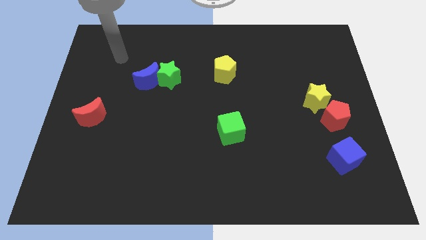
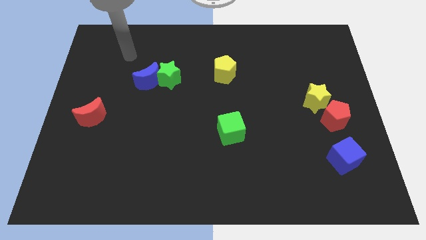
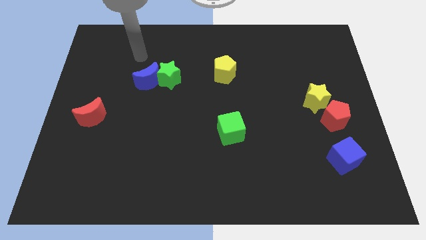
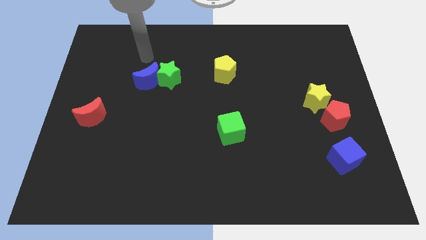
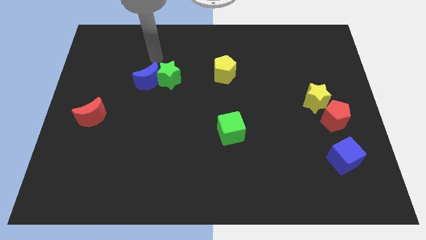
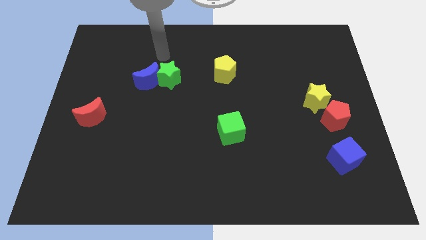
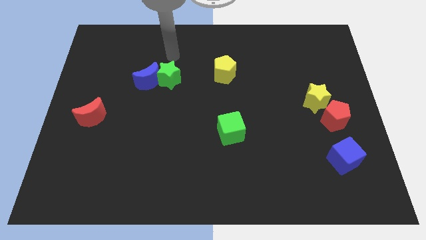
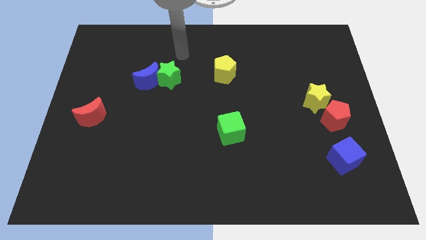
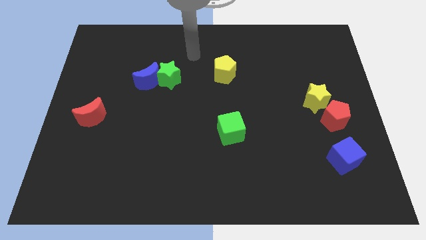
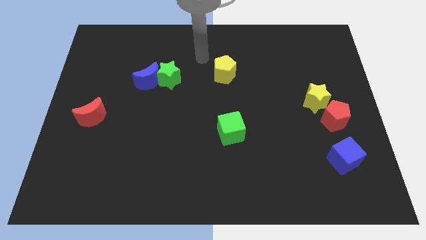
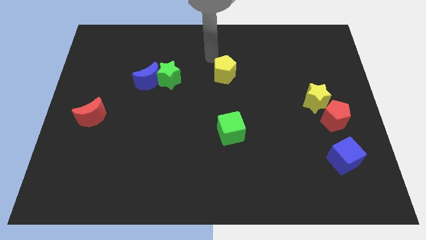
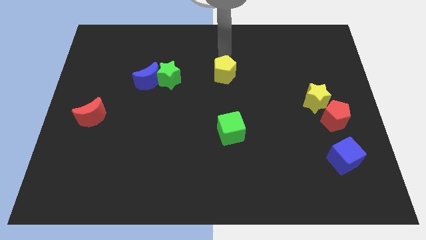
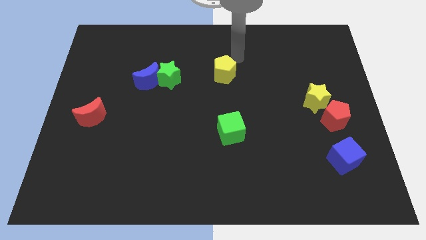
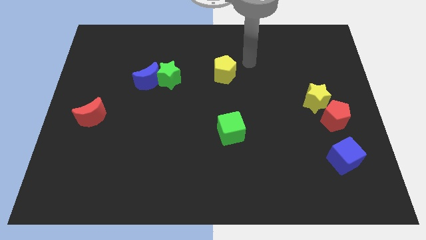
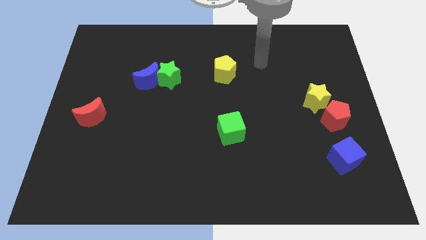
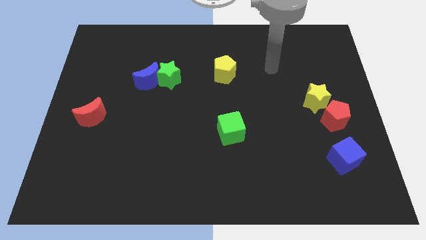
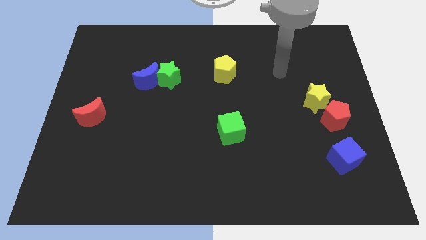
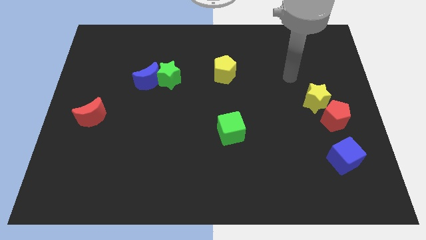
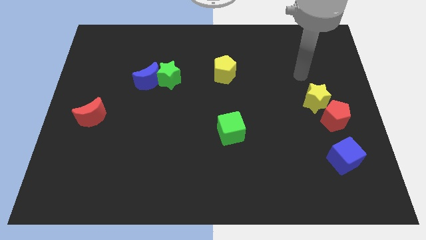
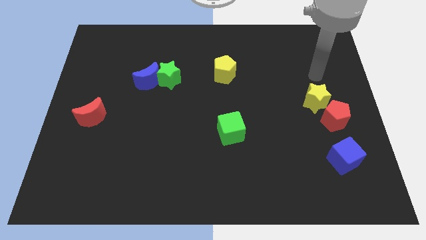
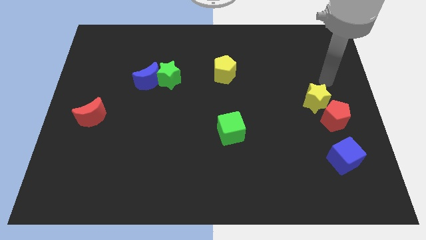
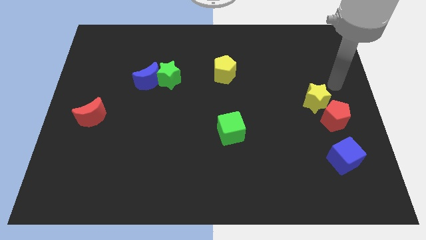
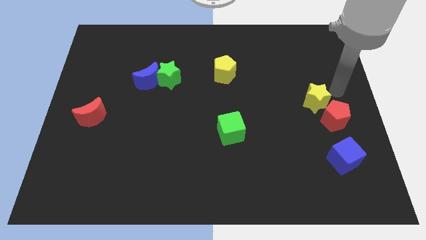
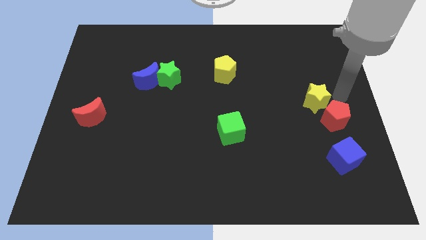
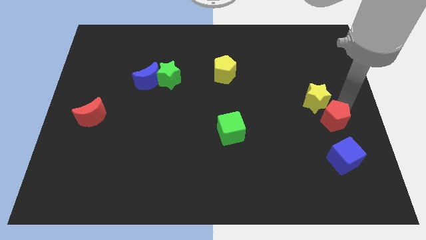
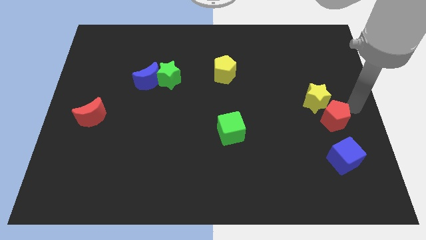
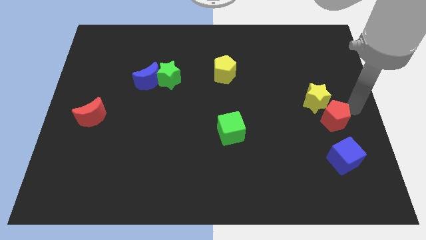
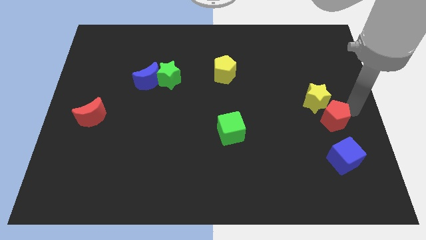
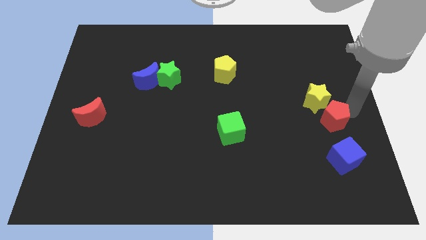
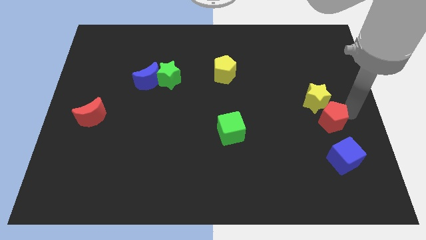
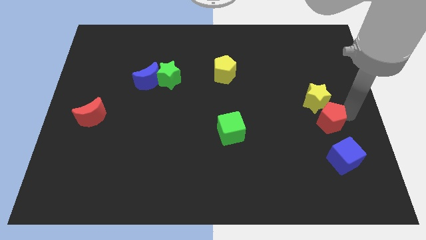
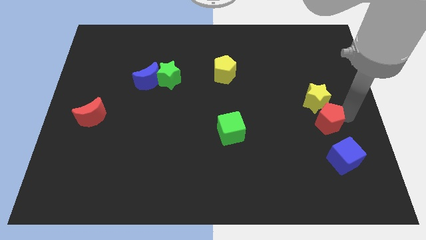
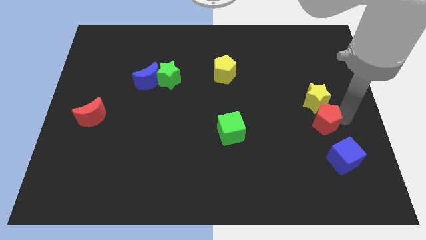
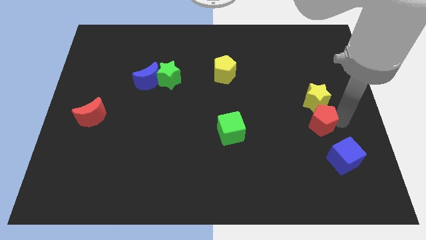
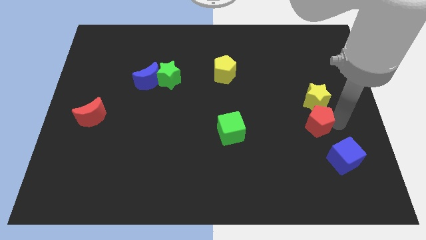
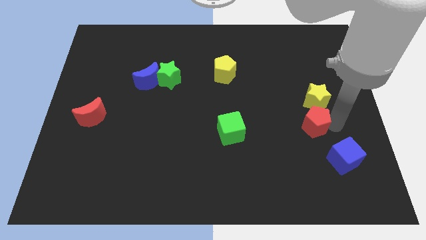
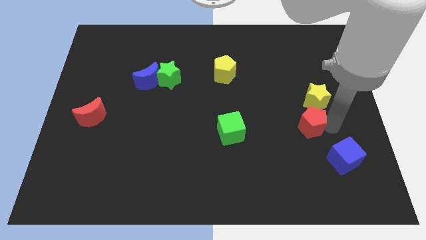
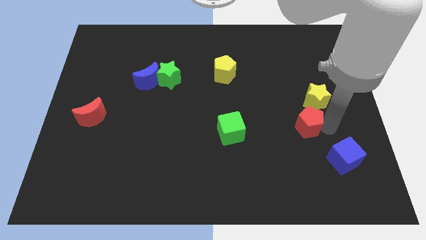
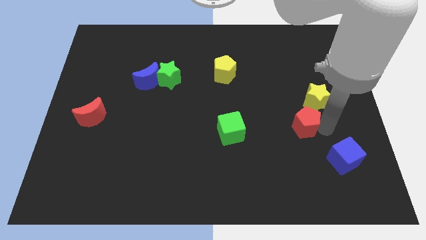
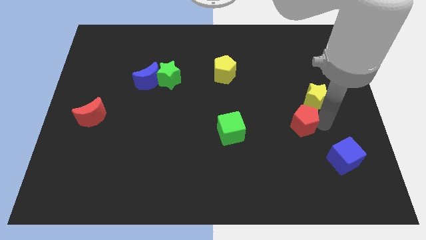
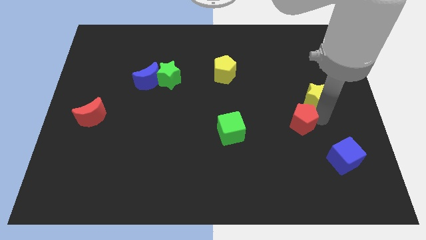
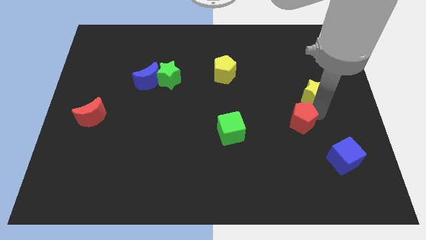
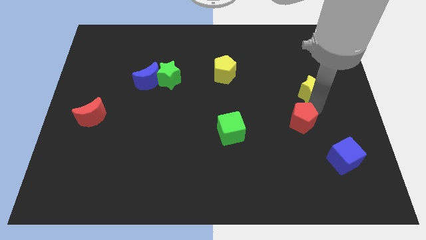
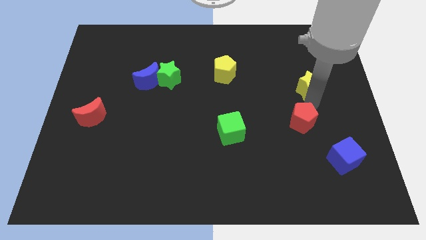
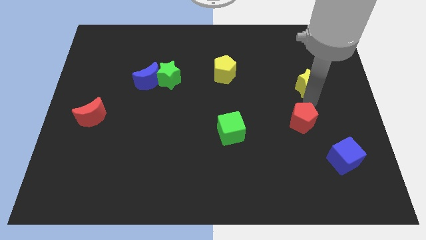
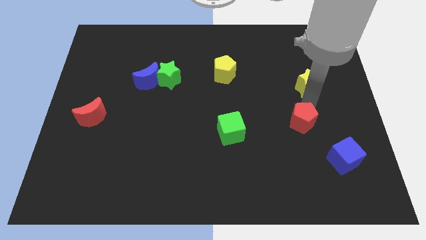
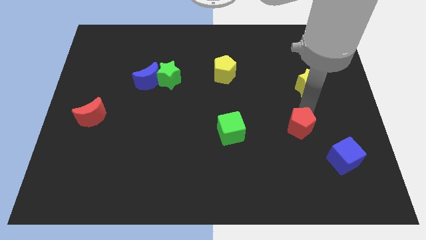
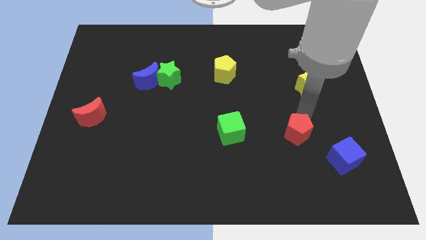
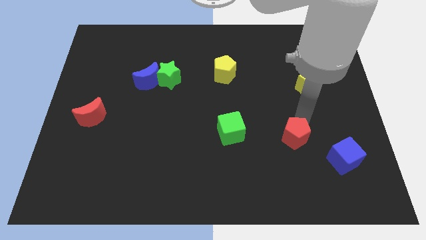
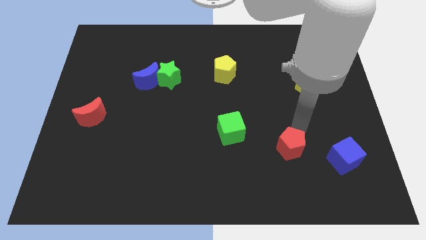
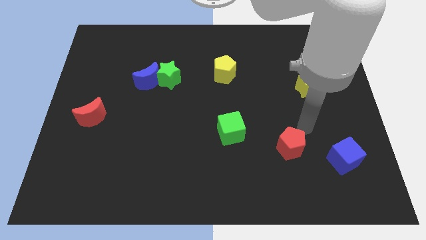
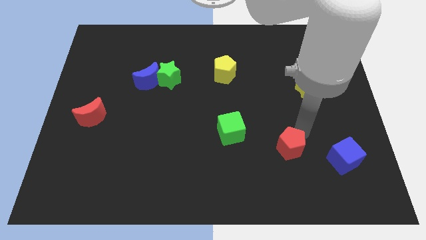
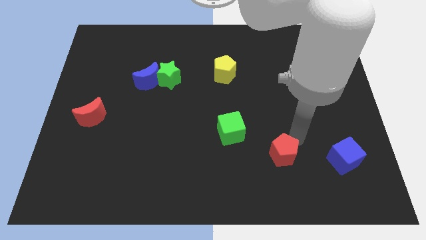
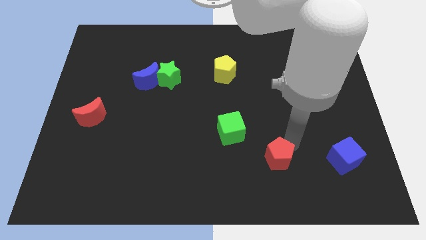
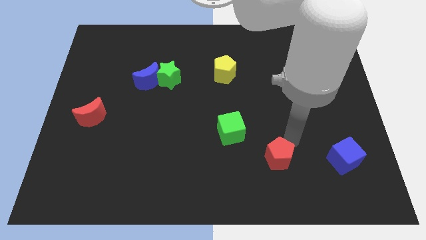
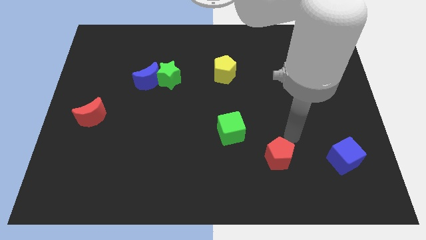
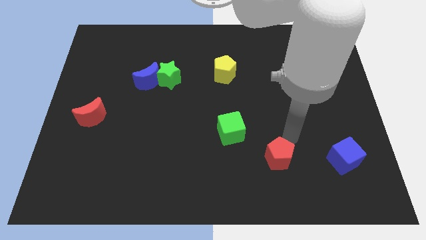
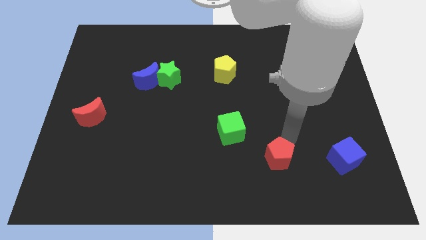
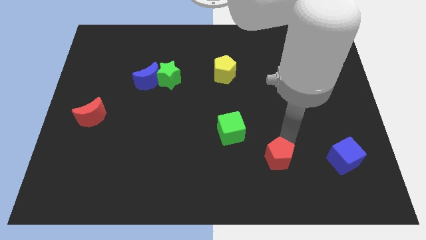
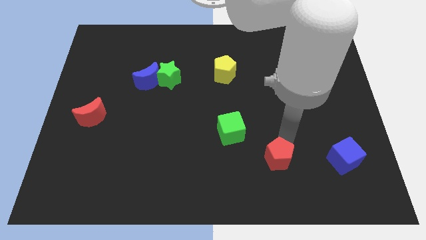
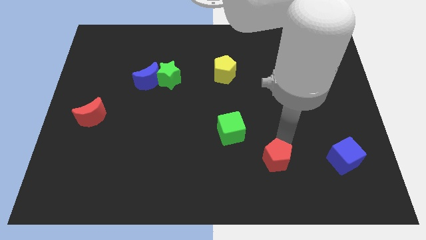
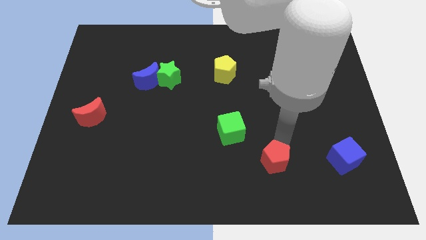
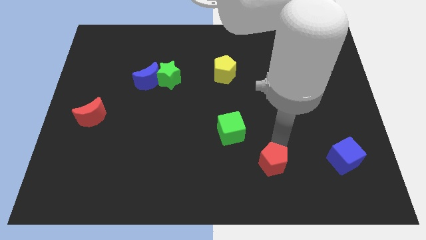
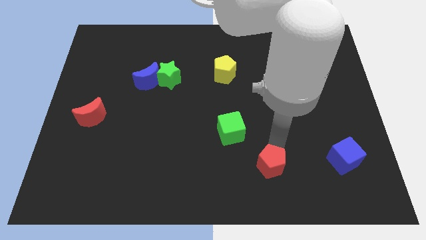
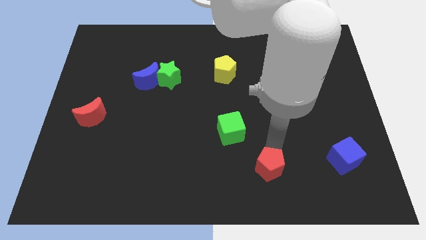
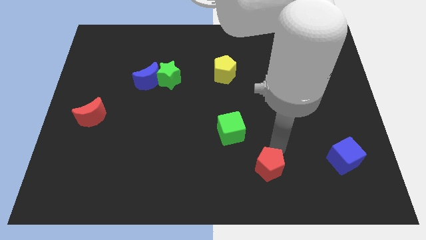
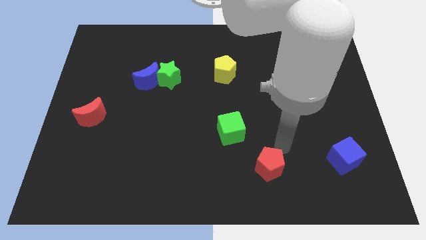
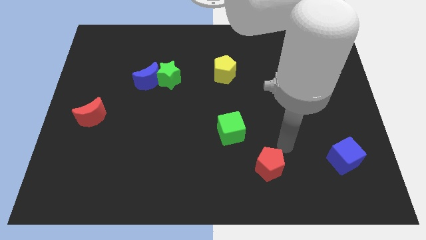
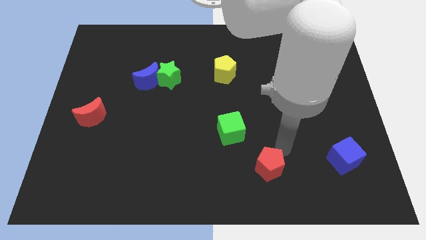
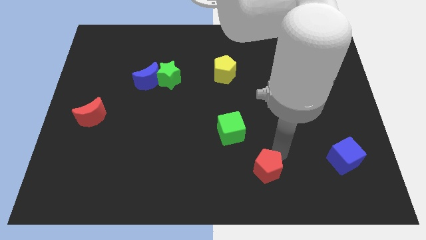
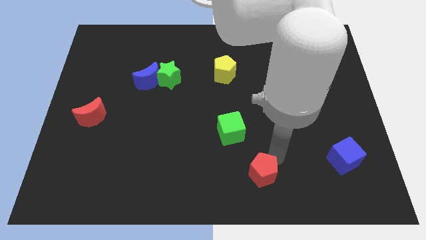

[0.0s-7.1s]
push the red pentagon to the bottom side

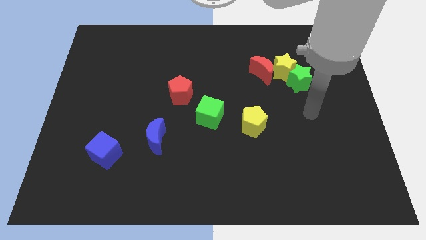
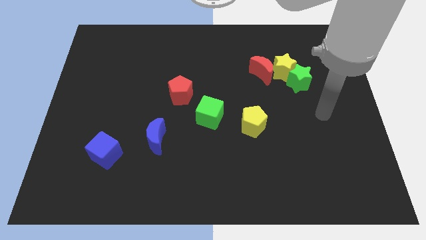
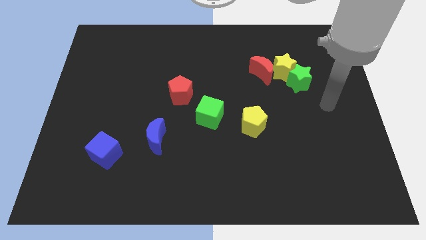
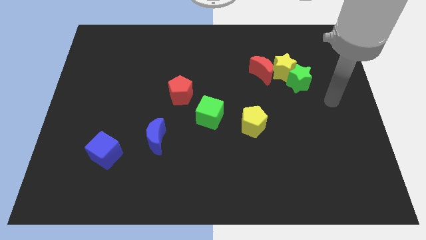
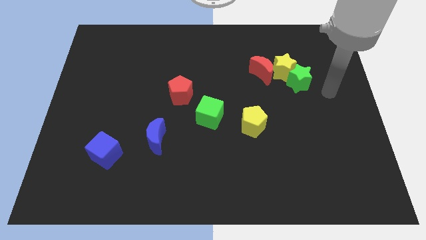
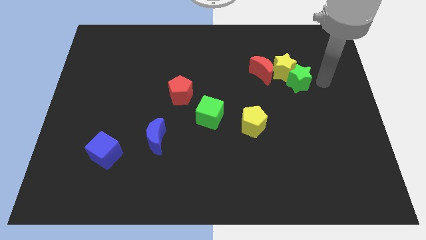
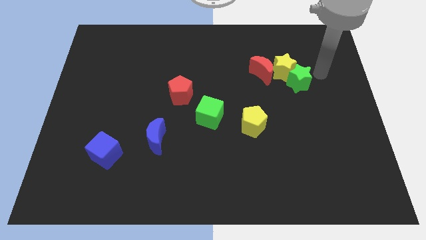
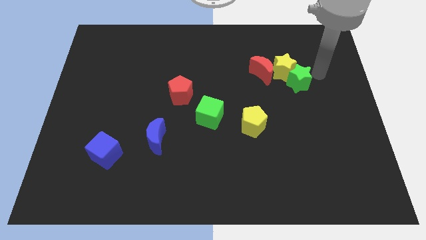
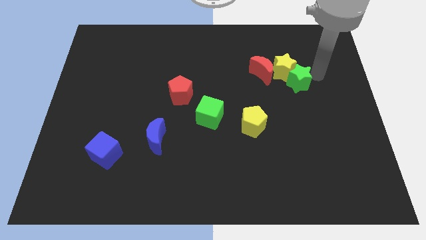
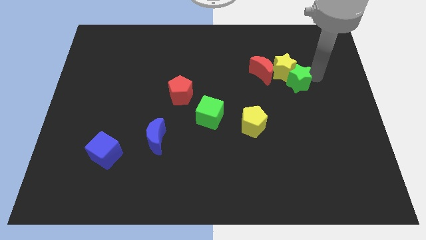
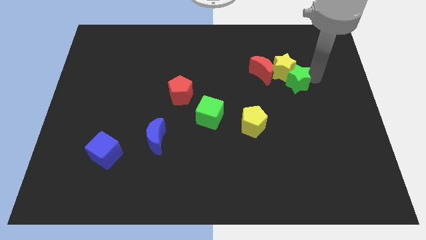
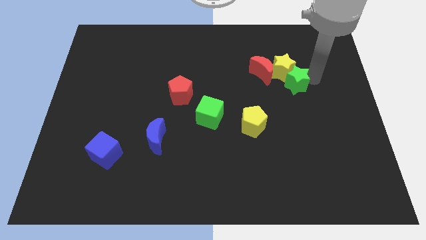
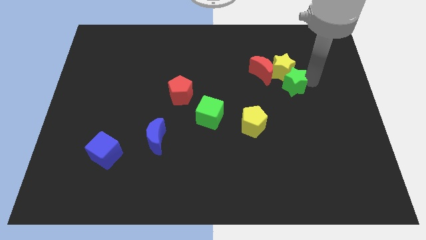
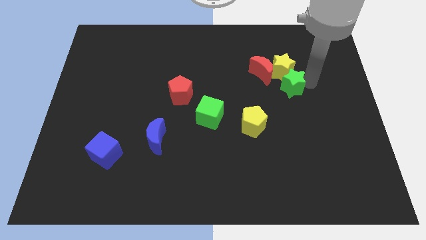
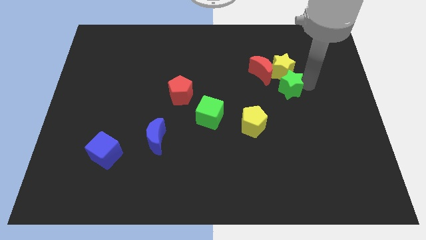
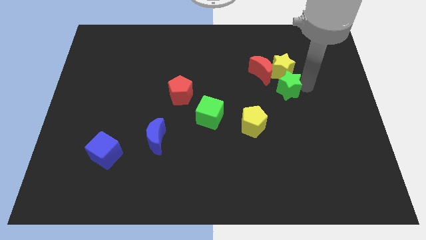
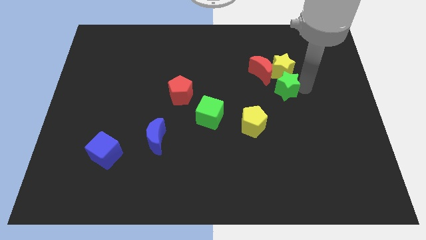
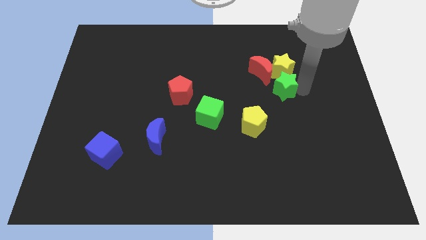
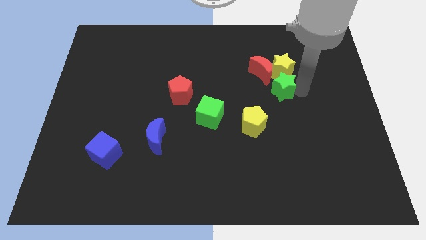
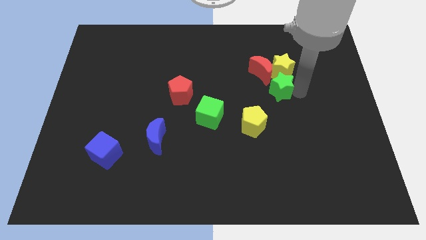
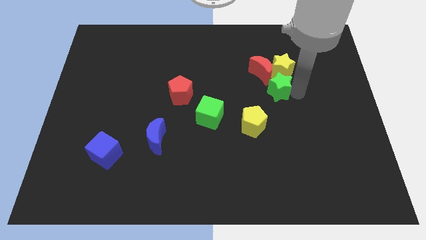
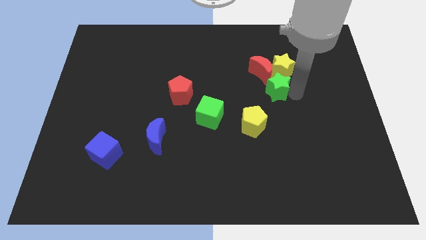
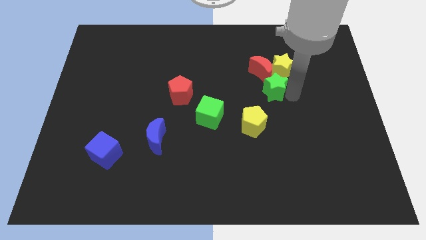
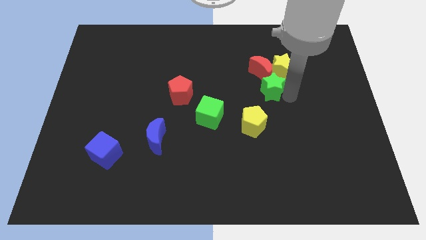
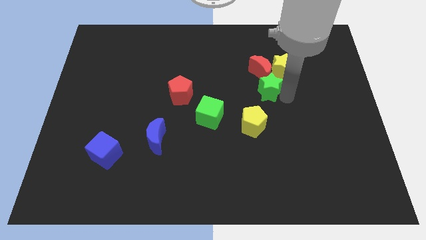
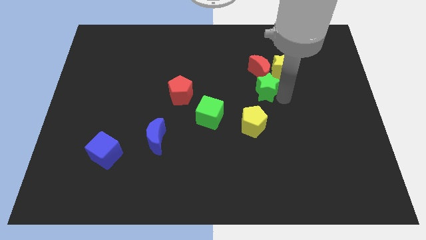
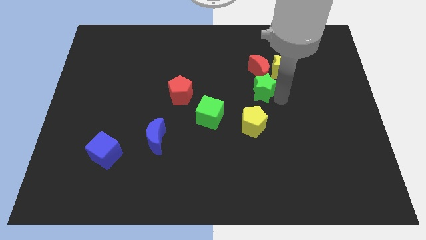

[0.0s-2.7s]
move the green star to the middle of the board
